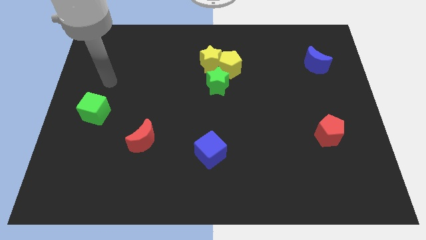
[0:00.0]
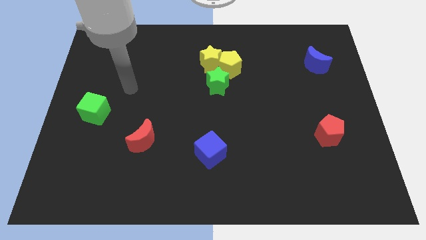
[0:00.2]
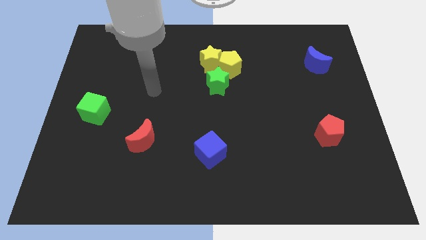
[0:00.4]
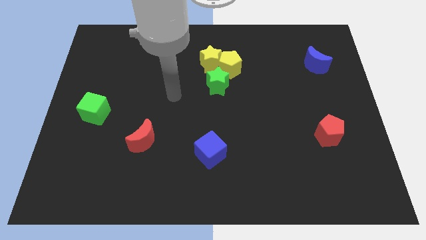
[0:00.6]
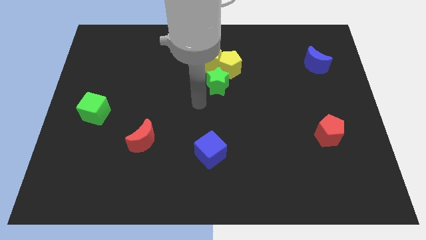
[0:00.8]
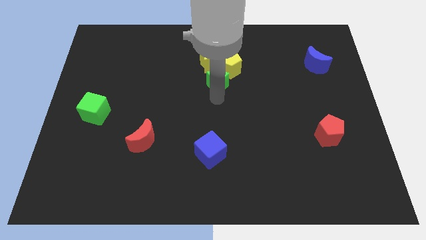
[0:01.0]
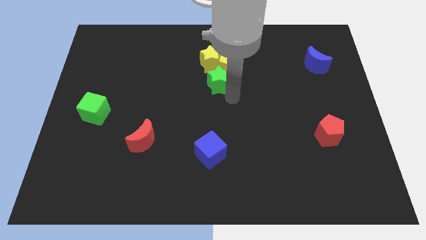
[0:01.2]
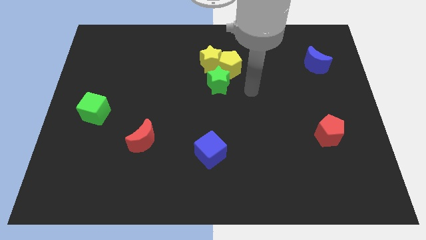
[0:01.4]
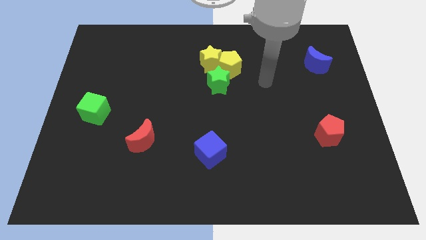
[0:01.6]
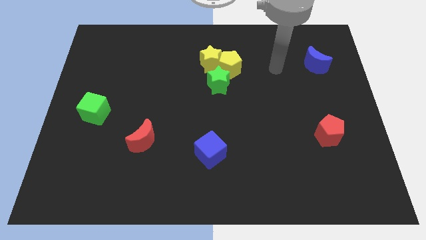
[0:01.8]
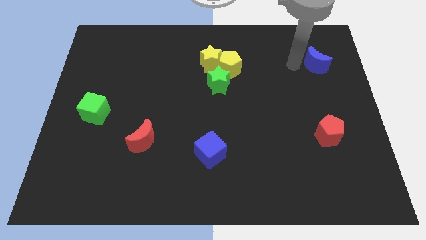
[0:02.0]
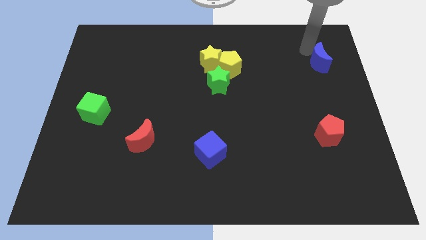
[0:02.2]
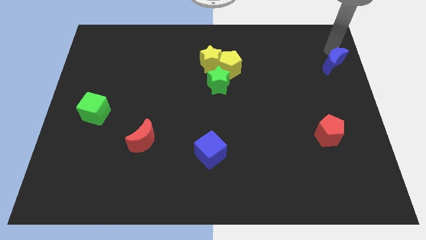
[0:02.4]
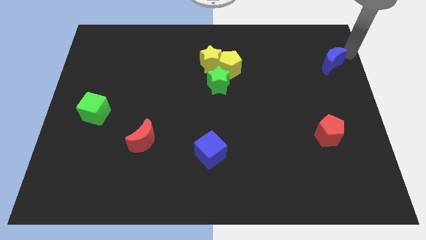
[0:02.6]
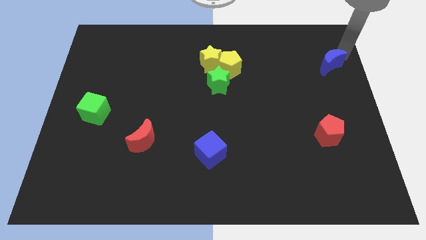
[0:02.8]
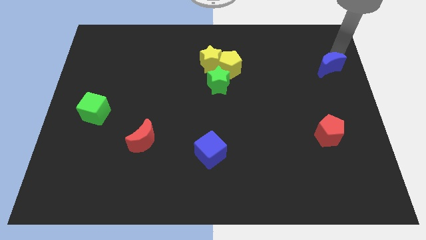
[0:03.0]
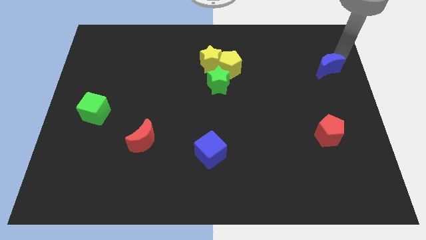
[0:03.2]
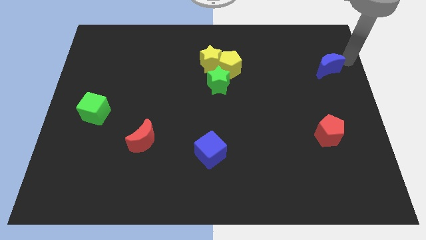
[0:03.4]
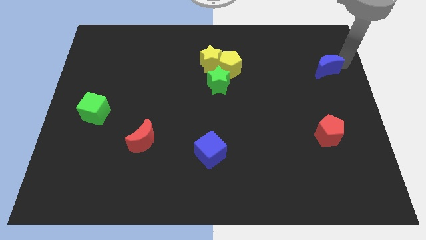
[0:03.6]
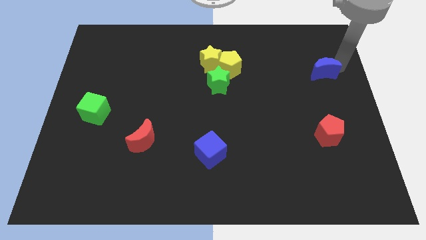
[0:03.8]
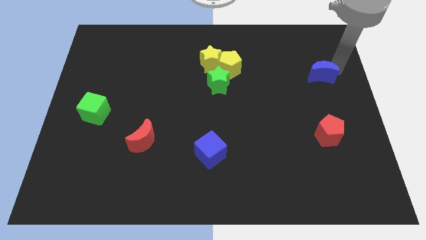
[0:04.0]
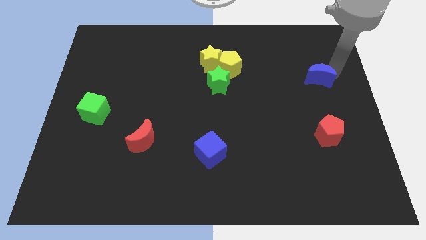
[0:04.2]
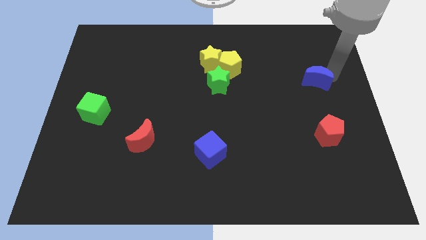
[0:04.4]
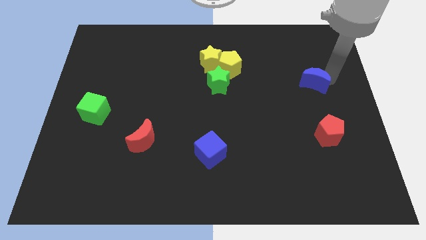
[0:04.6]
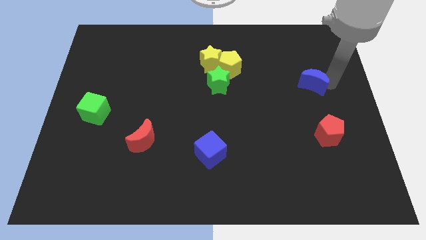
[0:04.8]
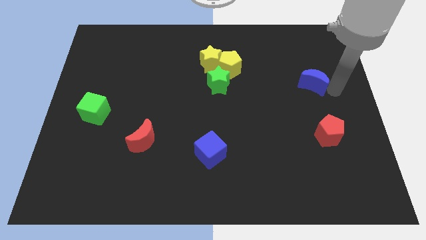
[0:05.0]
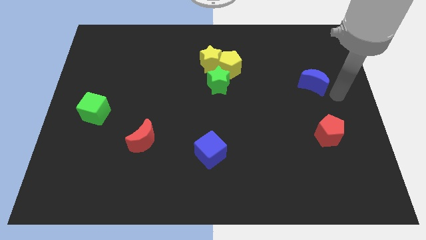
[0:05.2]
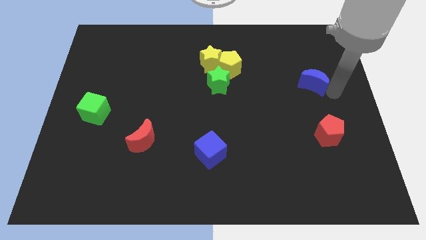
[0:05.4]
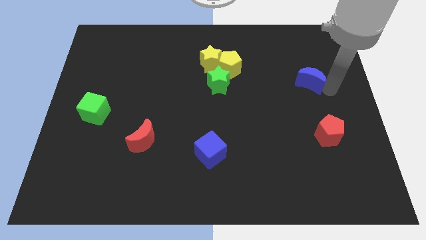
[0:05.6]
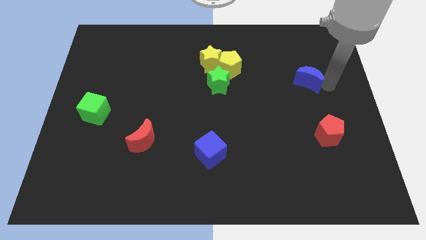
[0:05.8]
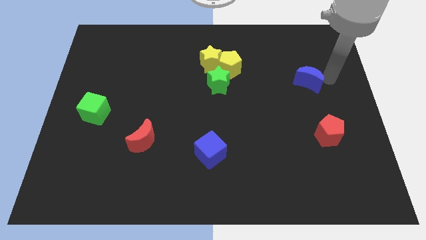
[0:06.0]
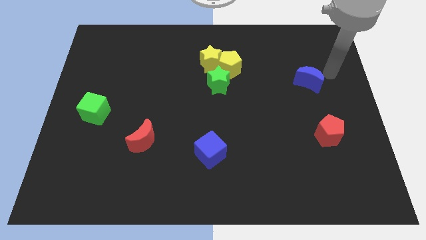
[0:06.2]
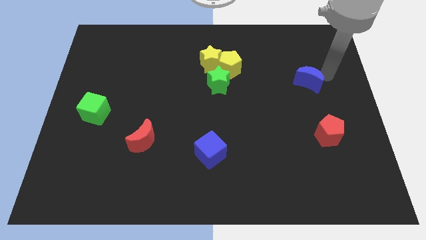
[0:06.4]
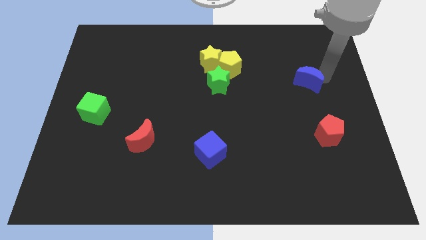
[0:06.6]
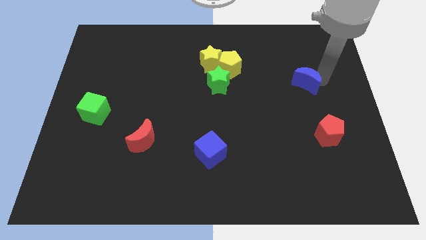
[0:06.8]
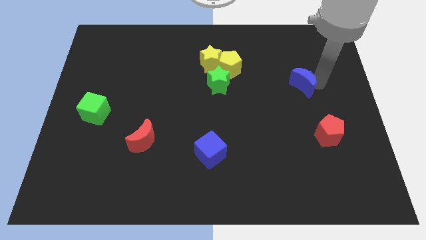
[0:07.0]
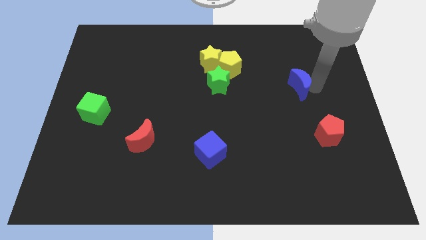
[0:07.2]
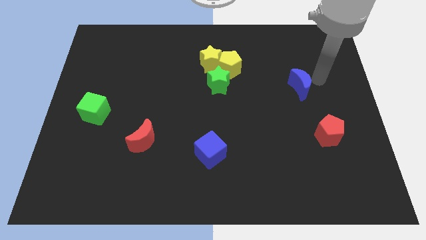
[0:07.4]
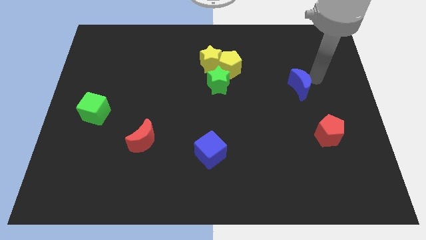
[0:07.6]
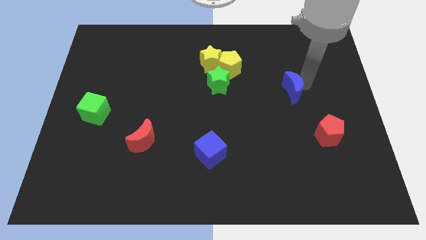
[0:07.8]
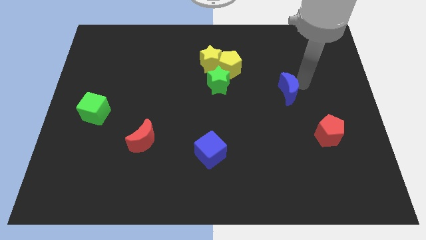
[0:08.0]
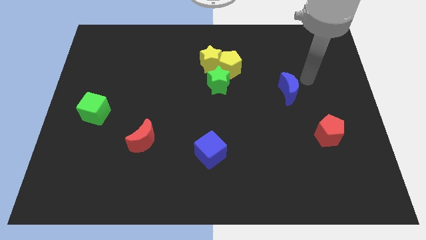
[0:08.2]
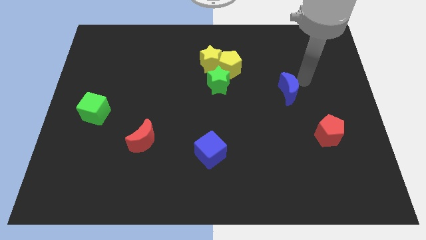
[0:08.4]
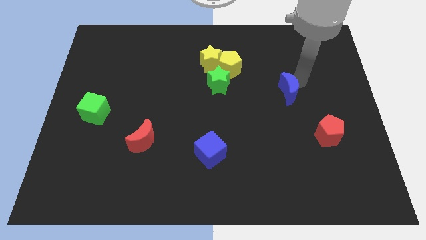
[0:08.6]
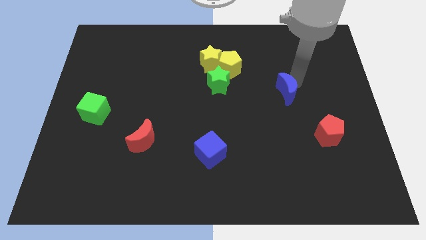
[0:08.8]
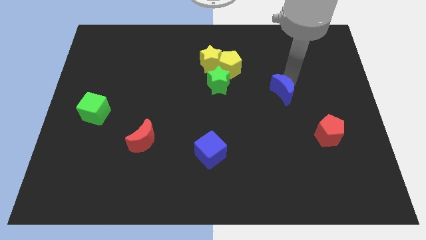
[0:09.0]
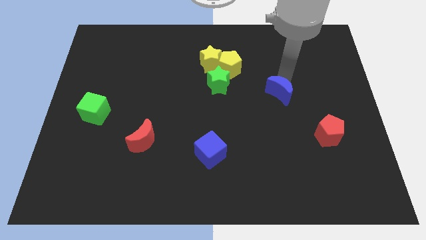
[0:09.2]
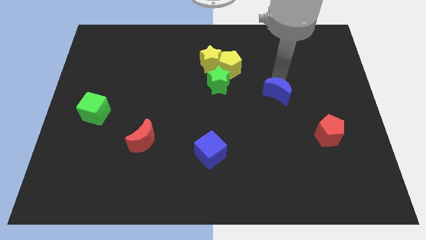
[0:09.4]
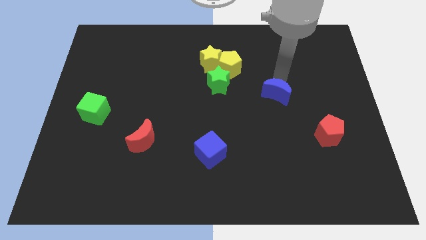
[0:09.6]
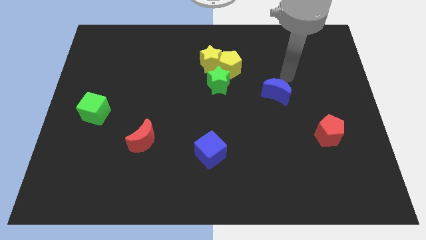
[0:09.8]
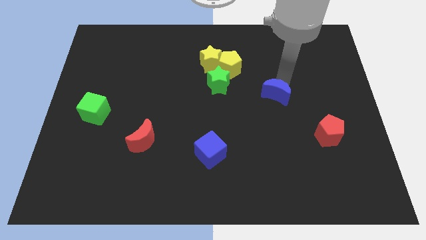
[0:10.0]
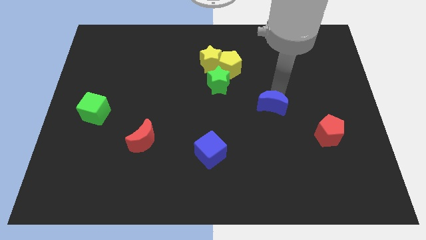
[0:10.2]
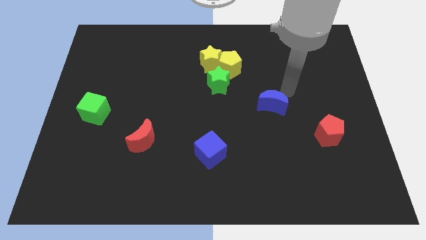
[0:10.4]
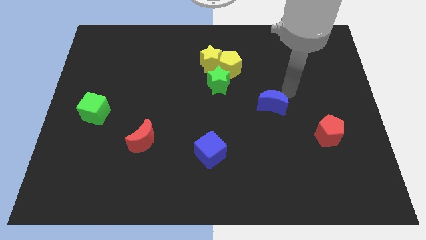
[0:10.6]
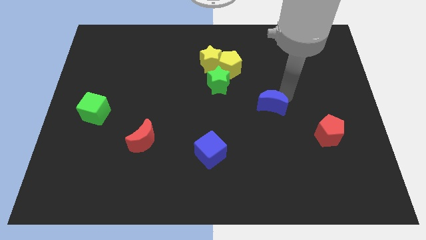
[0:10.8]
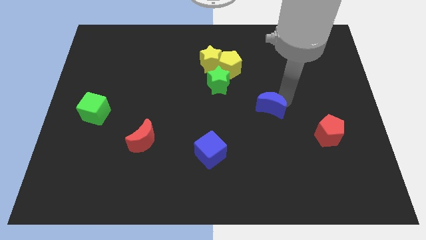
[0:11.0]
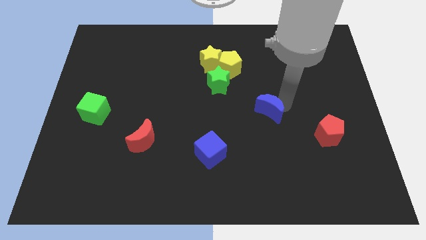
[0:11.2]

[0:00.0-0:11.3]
slide the blue moon down and to the left diagonally

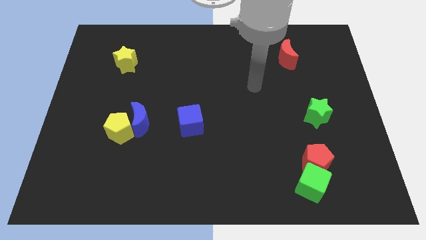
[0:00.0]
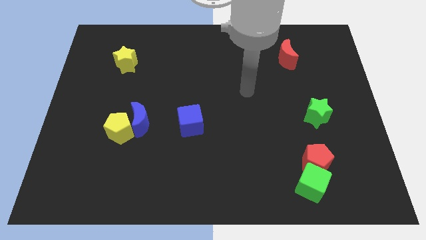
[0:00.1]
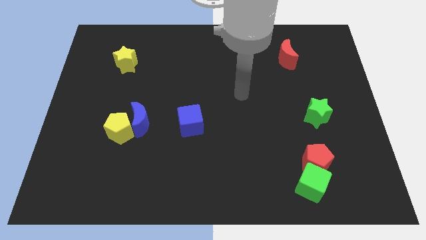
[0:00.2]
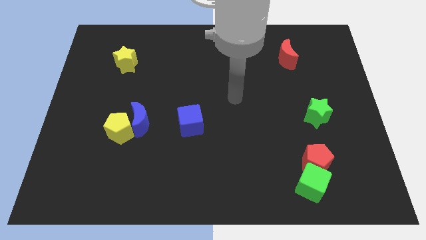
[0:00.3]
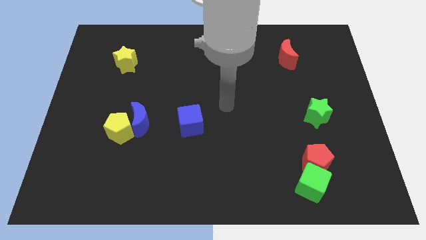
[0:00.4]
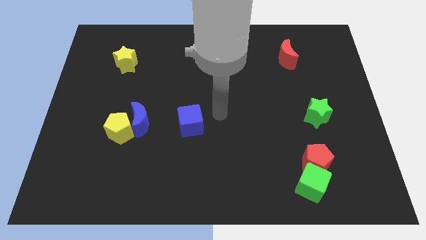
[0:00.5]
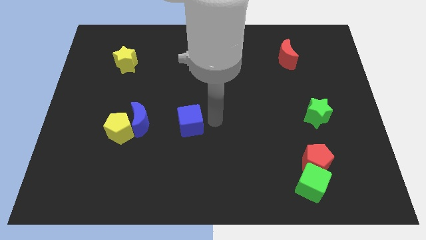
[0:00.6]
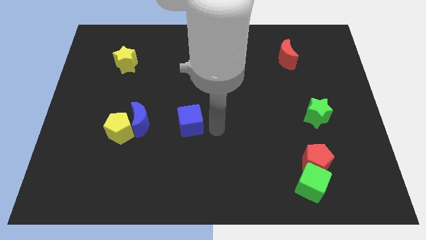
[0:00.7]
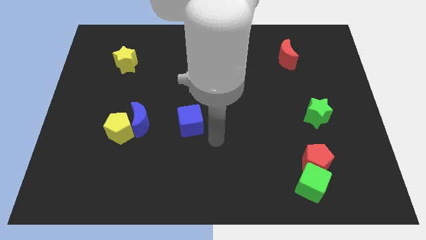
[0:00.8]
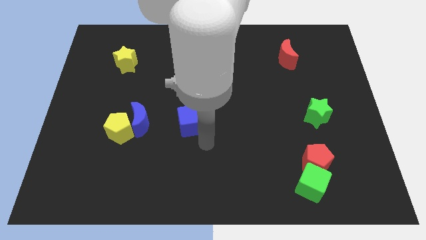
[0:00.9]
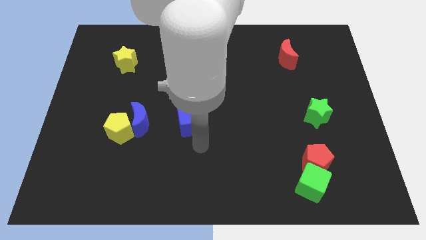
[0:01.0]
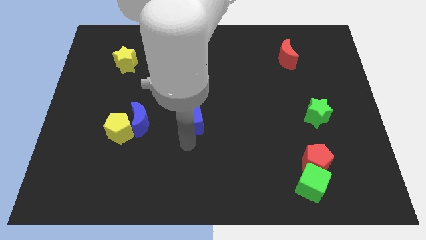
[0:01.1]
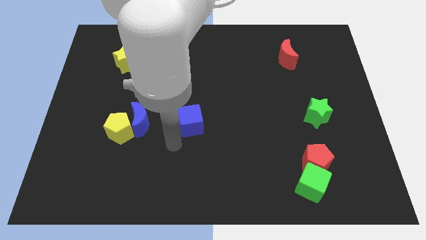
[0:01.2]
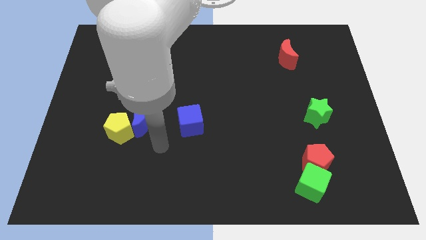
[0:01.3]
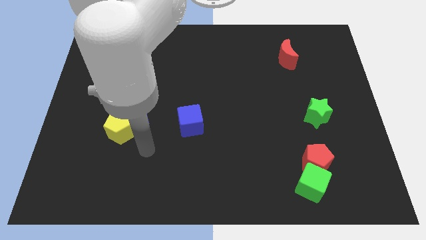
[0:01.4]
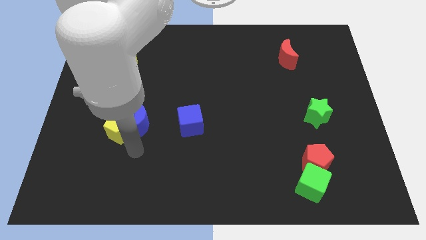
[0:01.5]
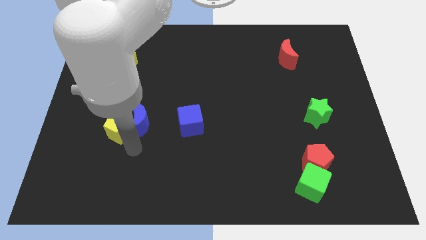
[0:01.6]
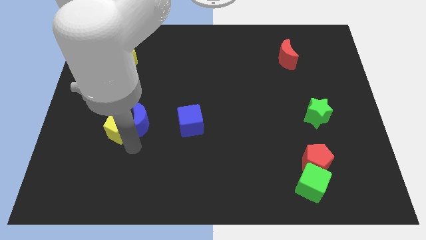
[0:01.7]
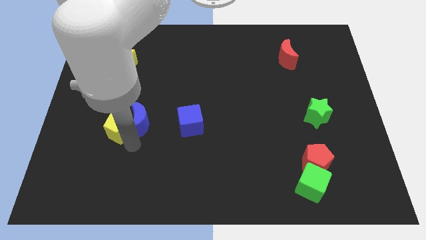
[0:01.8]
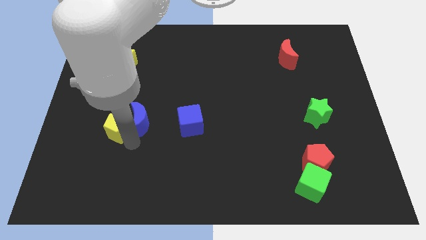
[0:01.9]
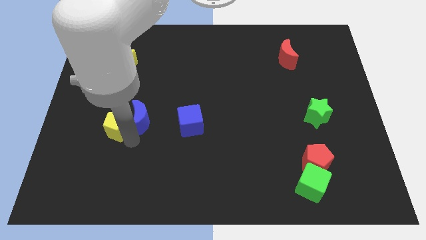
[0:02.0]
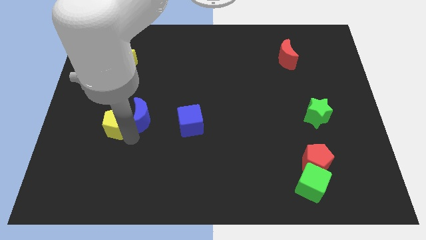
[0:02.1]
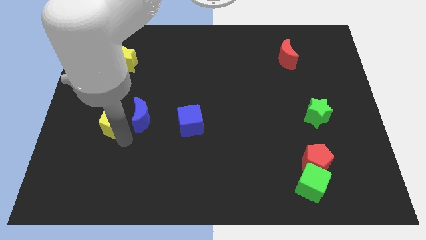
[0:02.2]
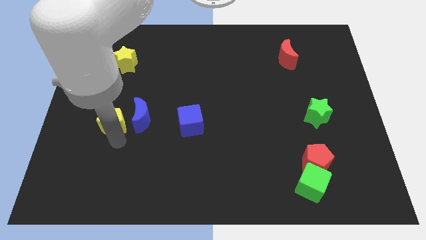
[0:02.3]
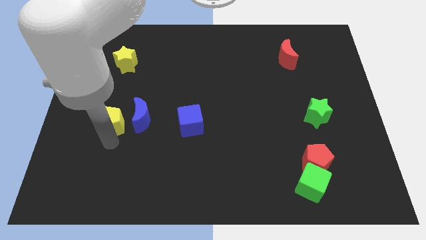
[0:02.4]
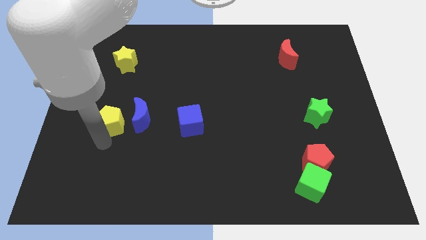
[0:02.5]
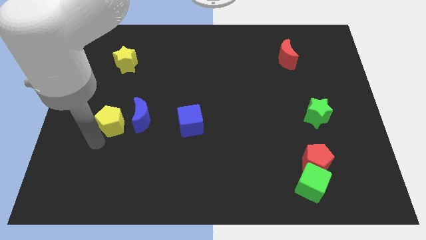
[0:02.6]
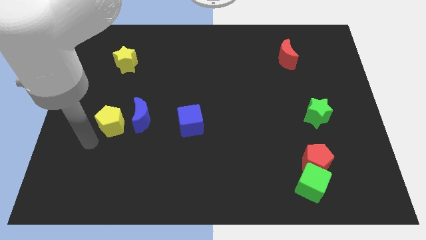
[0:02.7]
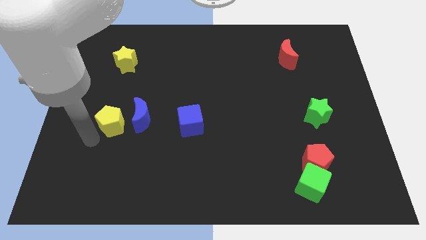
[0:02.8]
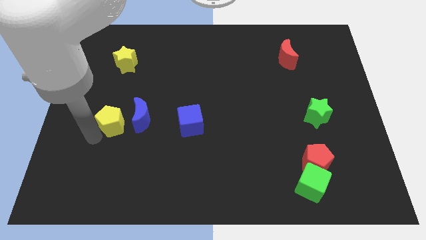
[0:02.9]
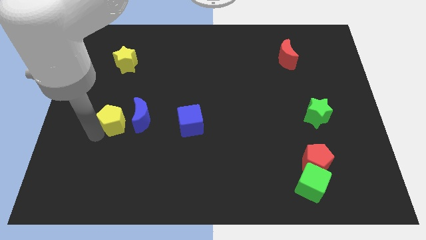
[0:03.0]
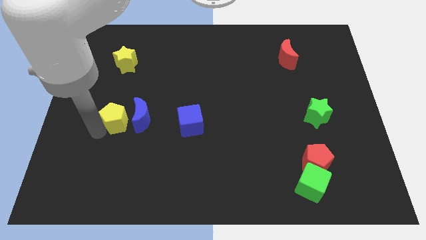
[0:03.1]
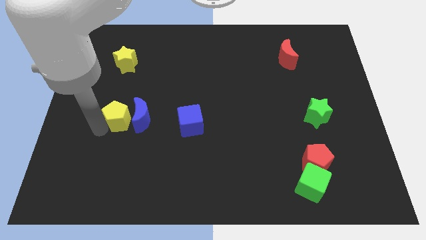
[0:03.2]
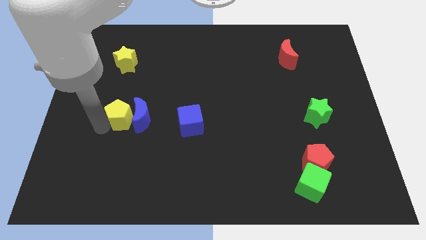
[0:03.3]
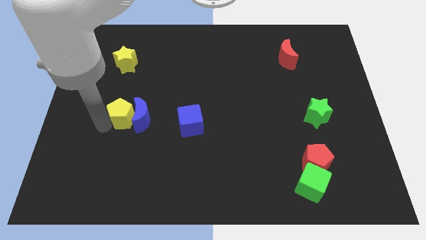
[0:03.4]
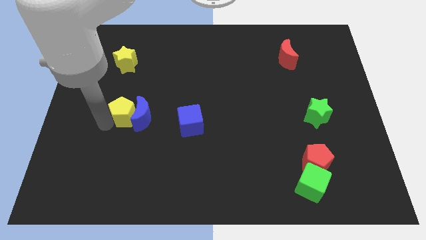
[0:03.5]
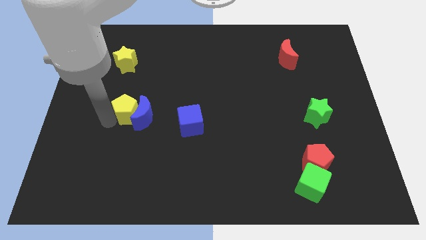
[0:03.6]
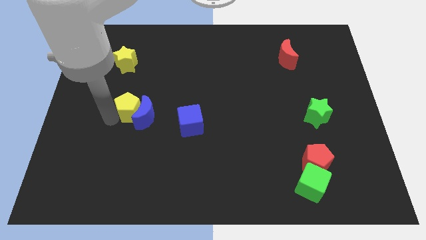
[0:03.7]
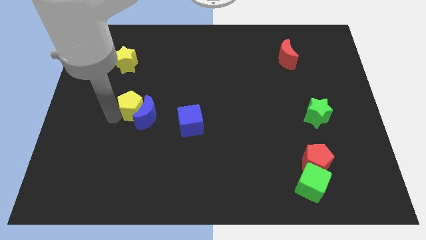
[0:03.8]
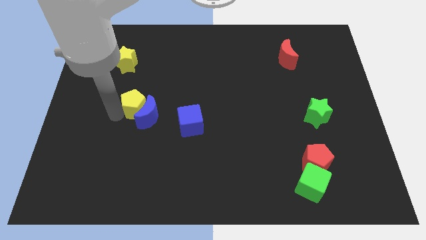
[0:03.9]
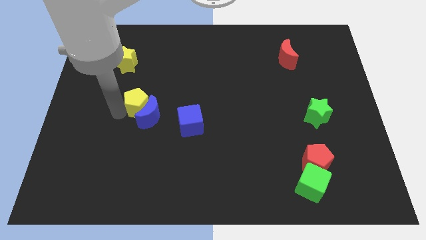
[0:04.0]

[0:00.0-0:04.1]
slide the yellow pentagon diagonally up and right somewhat
